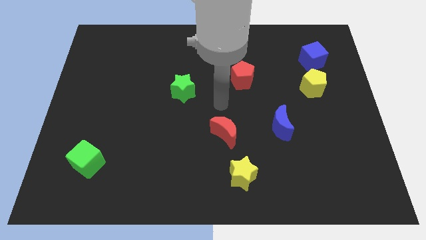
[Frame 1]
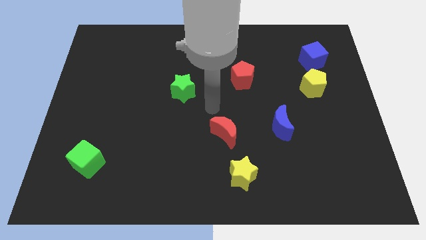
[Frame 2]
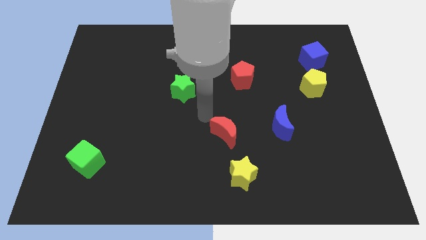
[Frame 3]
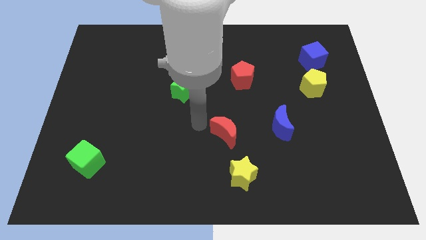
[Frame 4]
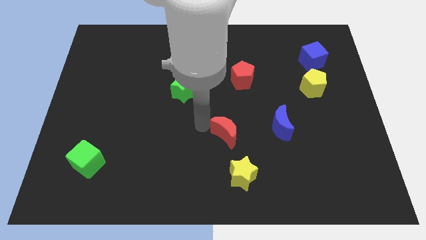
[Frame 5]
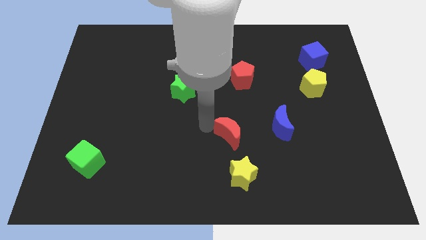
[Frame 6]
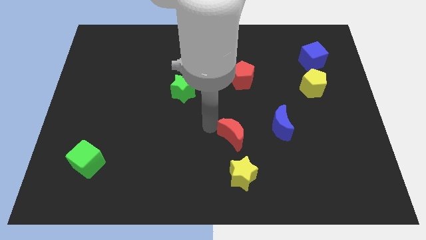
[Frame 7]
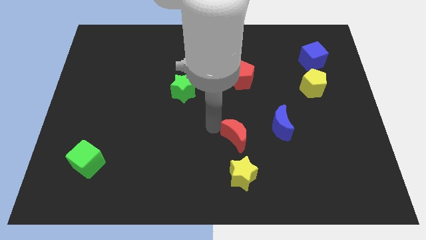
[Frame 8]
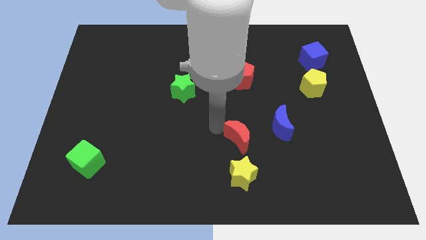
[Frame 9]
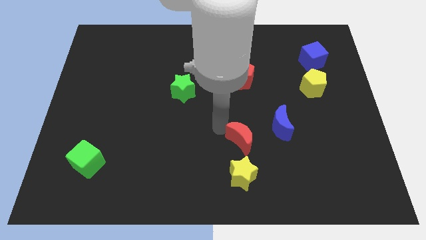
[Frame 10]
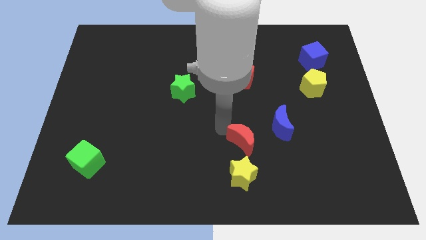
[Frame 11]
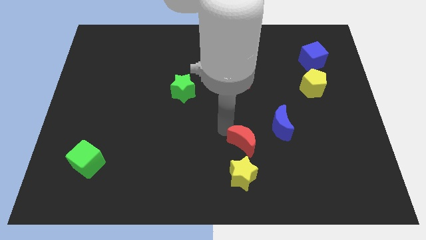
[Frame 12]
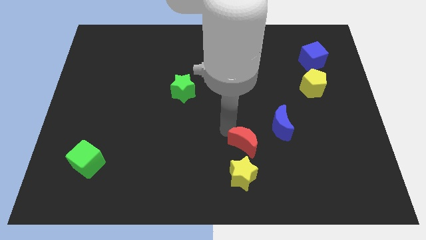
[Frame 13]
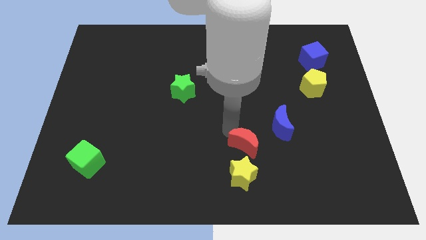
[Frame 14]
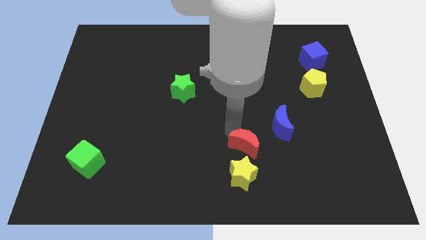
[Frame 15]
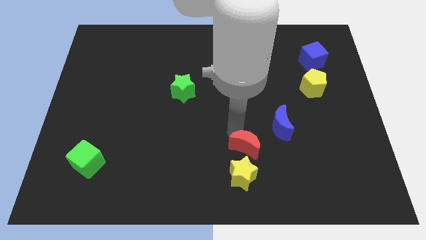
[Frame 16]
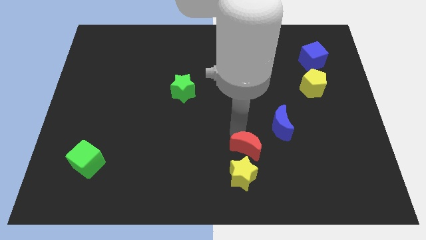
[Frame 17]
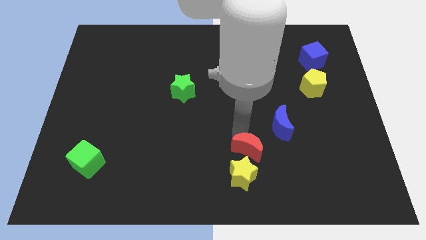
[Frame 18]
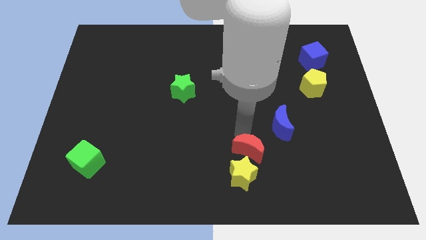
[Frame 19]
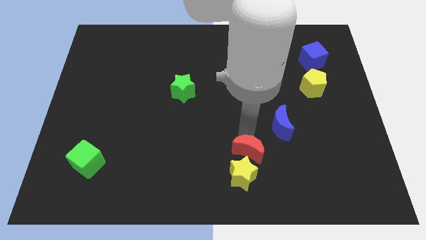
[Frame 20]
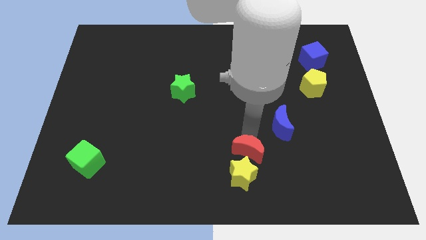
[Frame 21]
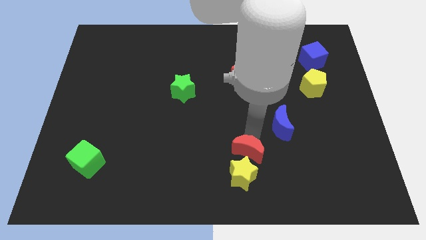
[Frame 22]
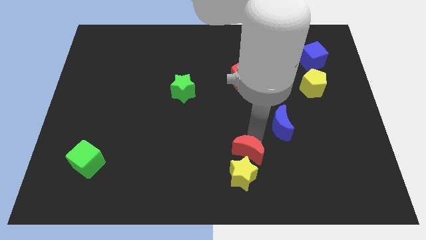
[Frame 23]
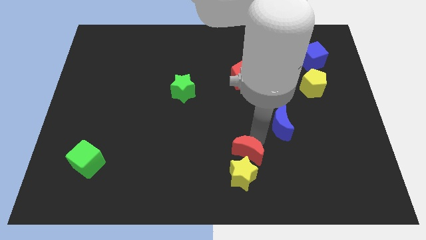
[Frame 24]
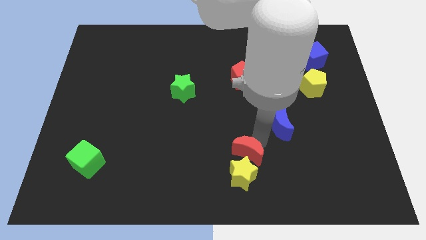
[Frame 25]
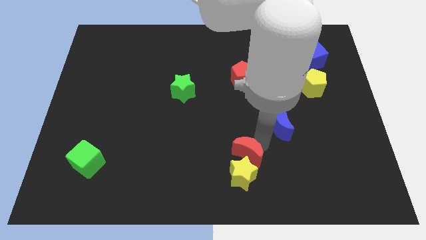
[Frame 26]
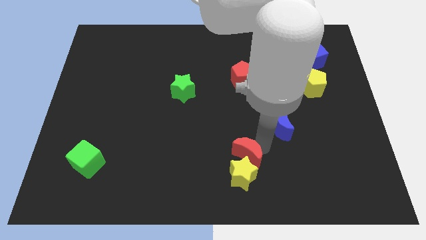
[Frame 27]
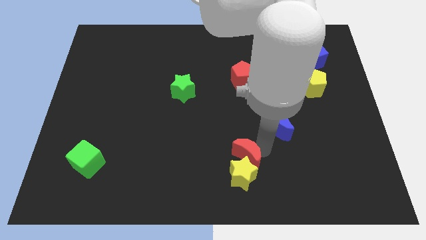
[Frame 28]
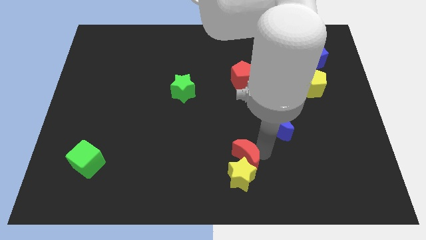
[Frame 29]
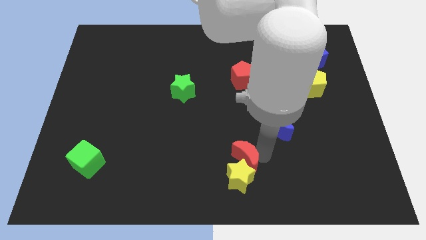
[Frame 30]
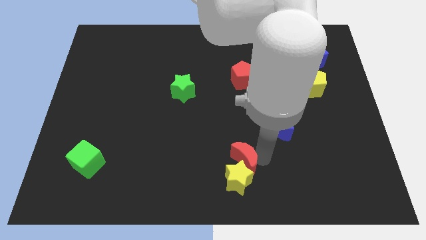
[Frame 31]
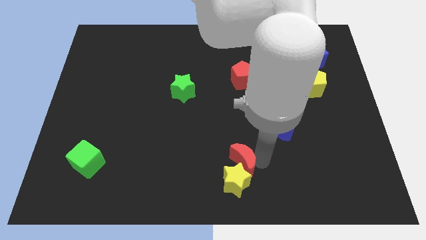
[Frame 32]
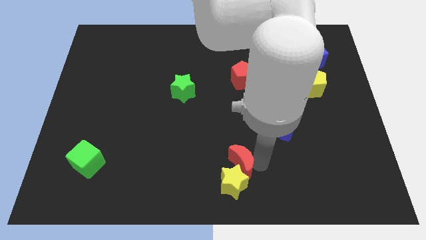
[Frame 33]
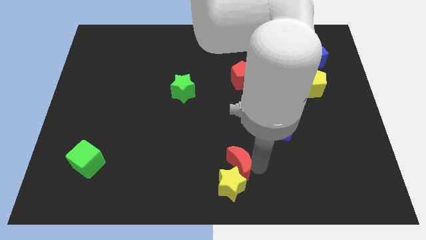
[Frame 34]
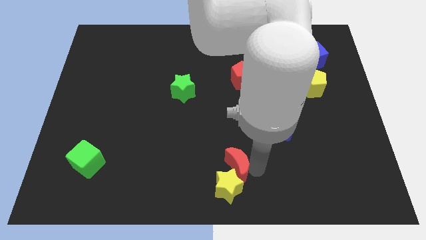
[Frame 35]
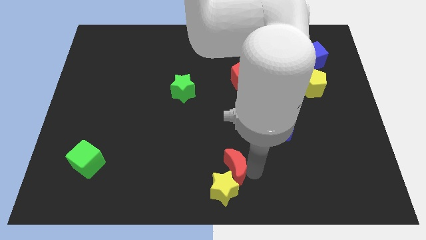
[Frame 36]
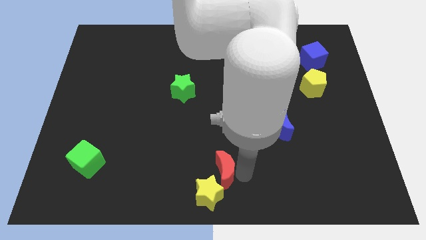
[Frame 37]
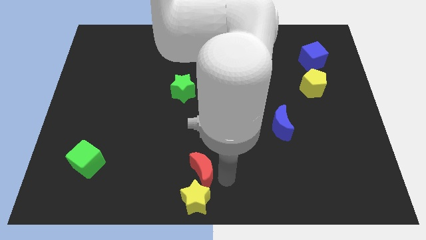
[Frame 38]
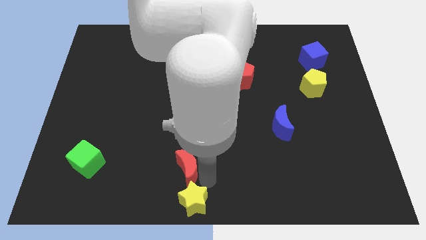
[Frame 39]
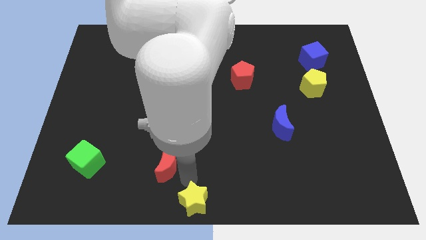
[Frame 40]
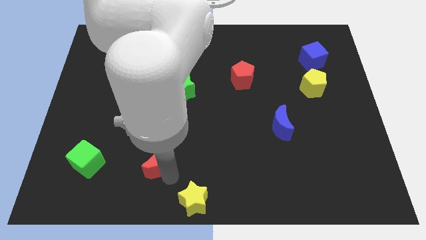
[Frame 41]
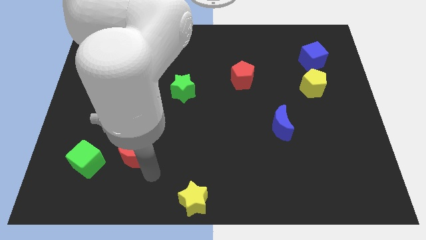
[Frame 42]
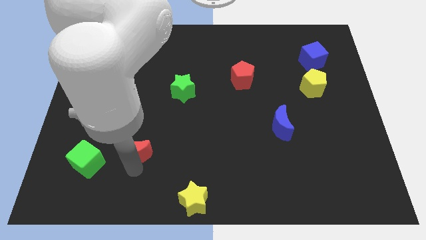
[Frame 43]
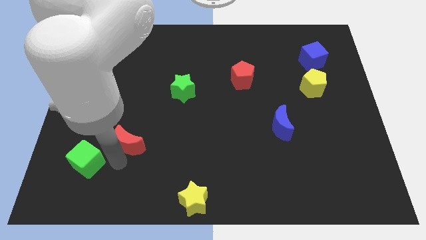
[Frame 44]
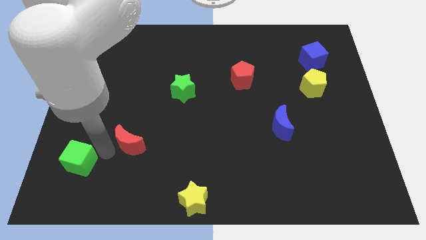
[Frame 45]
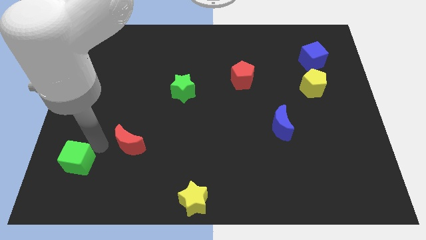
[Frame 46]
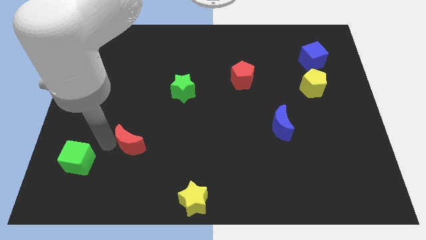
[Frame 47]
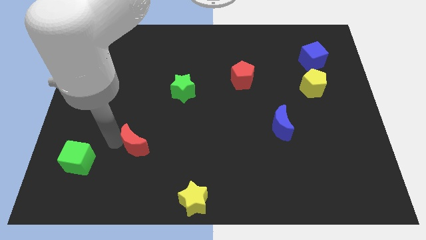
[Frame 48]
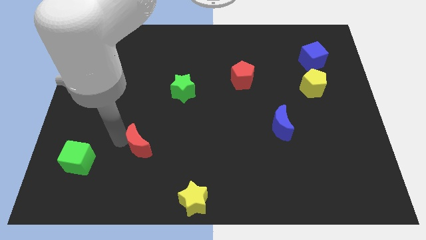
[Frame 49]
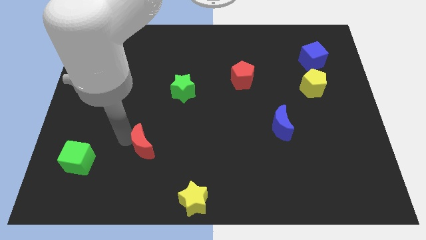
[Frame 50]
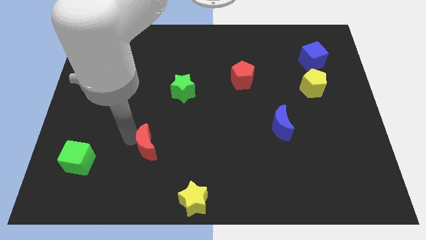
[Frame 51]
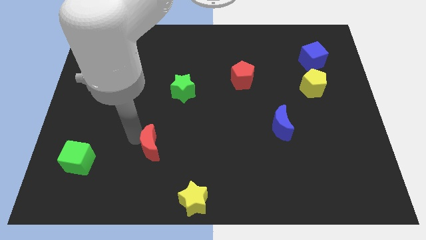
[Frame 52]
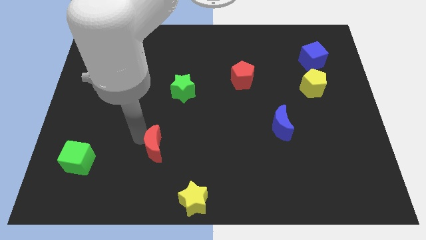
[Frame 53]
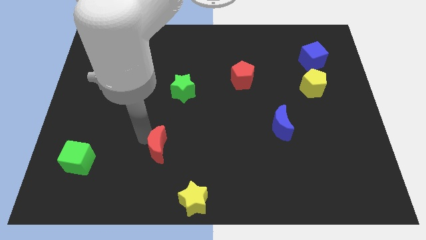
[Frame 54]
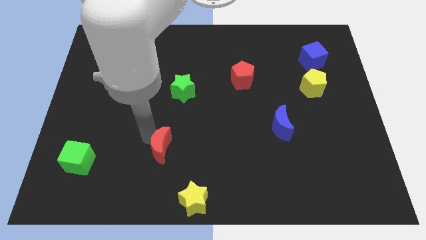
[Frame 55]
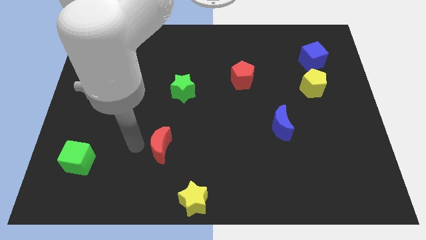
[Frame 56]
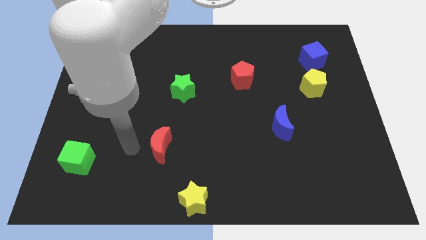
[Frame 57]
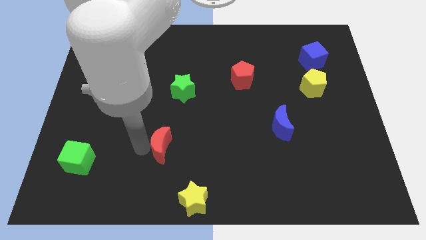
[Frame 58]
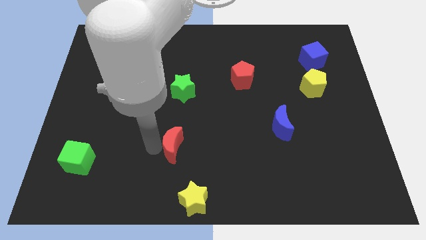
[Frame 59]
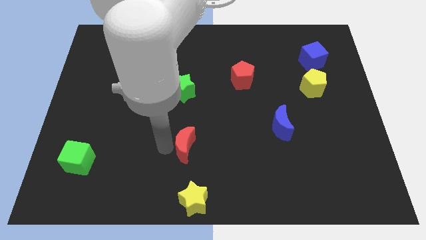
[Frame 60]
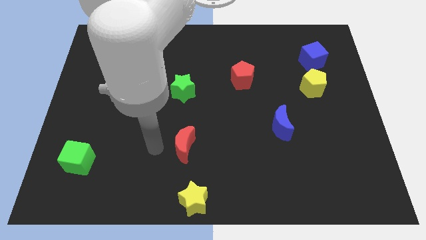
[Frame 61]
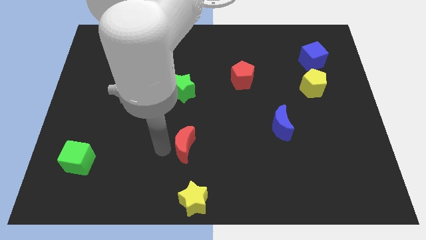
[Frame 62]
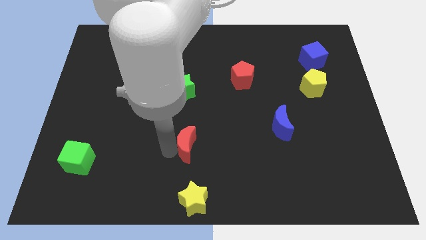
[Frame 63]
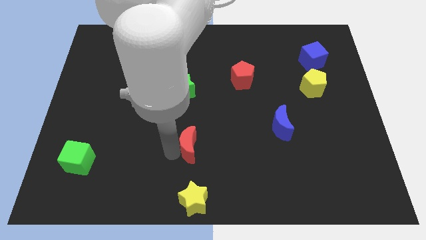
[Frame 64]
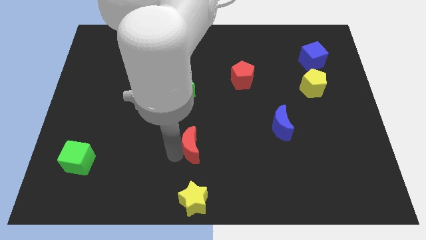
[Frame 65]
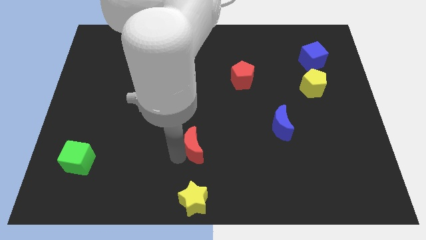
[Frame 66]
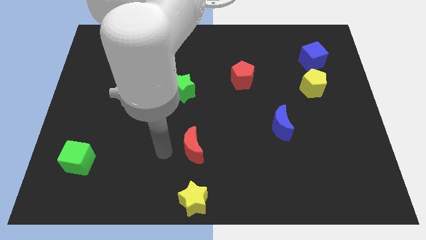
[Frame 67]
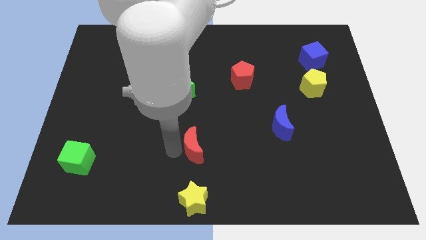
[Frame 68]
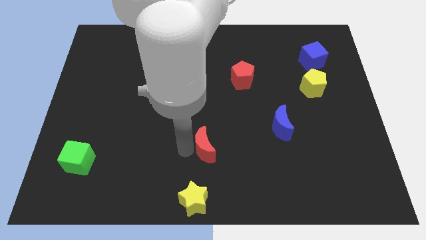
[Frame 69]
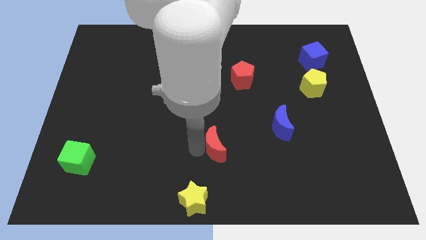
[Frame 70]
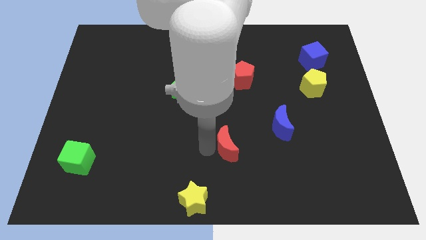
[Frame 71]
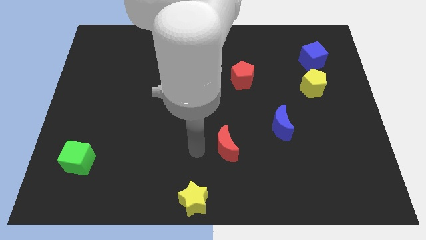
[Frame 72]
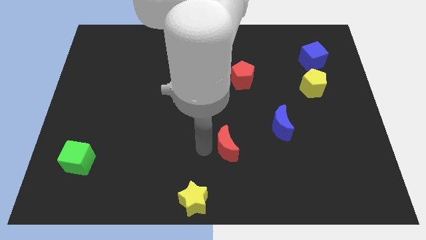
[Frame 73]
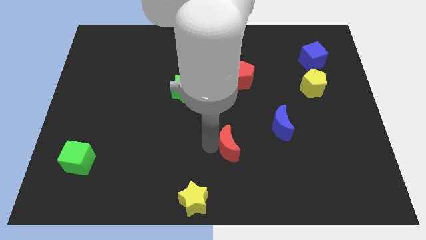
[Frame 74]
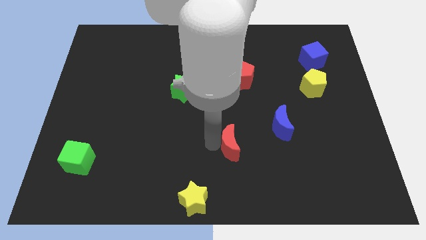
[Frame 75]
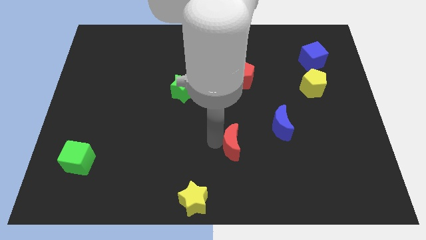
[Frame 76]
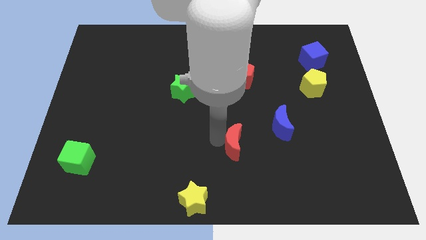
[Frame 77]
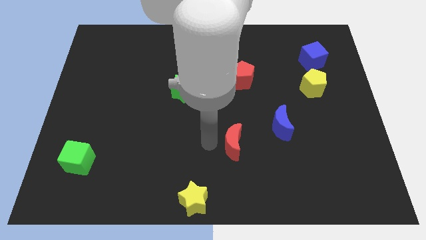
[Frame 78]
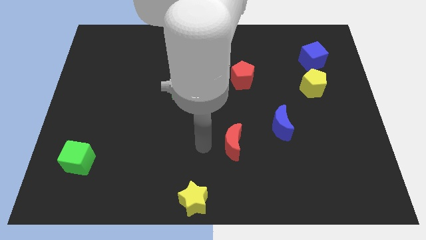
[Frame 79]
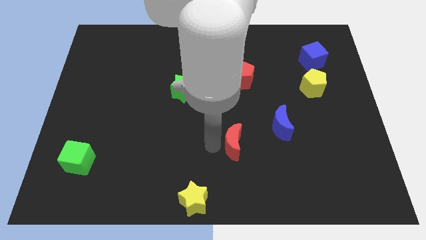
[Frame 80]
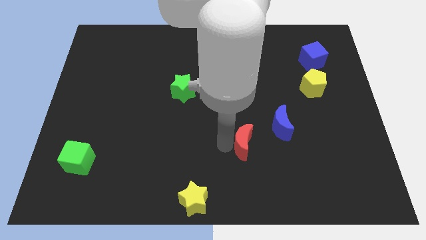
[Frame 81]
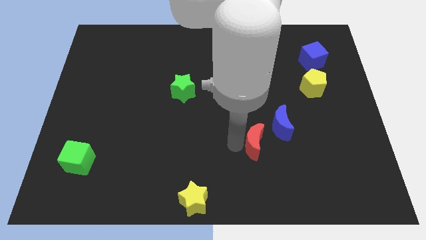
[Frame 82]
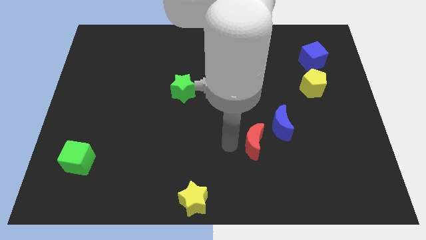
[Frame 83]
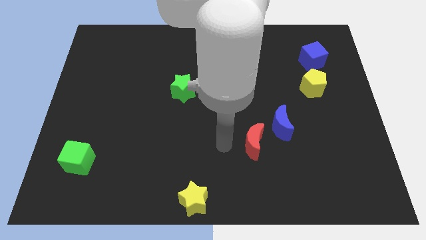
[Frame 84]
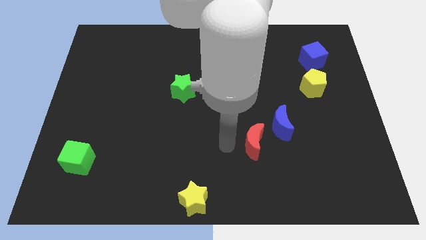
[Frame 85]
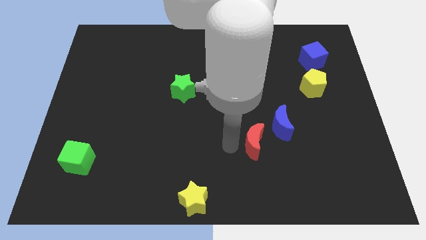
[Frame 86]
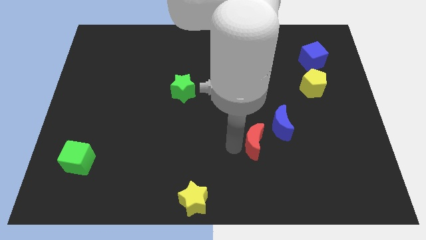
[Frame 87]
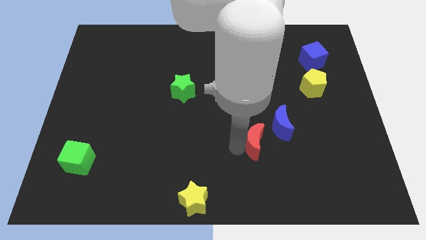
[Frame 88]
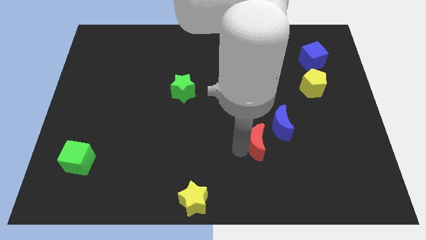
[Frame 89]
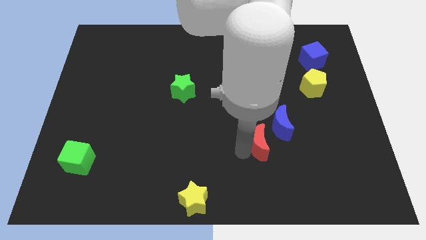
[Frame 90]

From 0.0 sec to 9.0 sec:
slightly slide the red moon to the right
